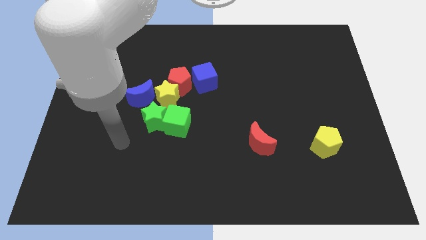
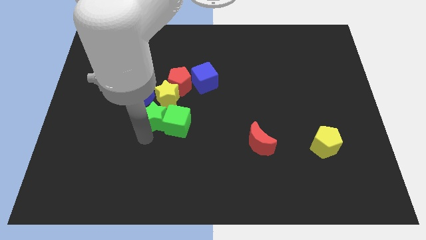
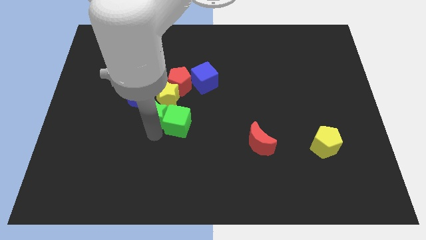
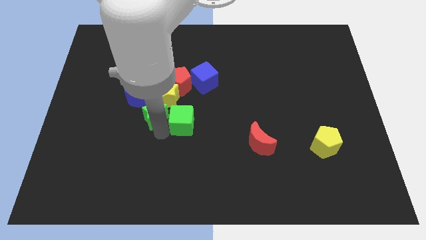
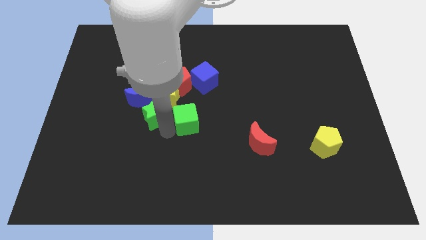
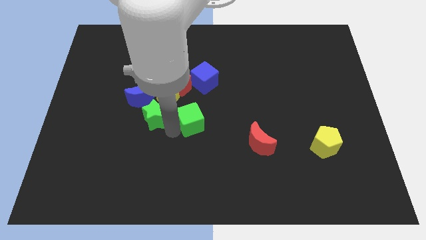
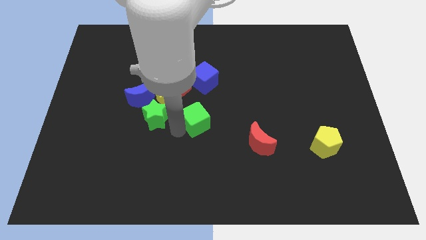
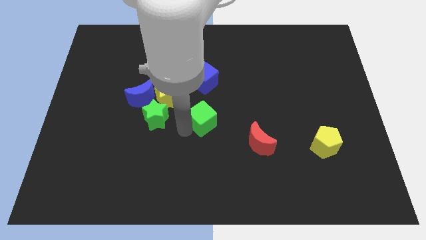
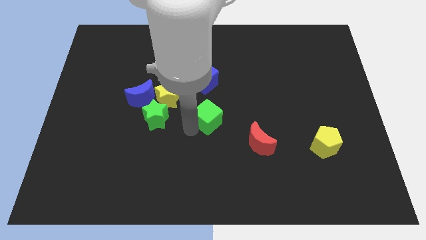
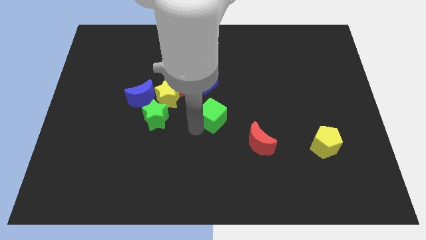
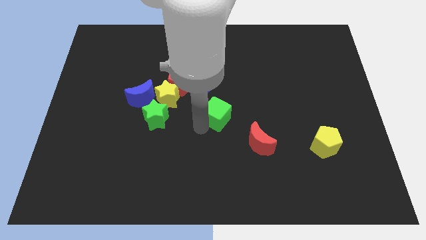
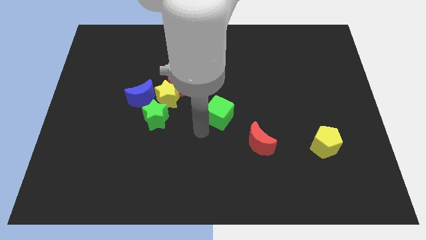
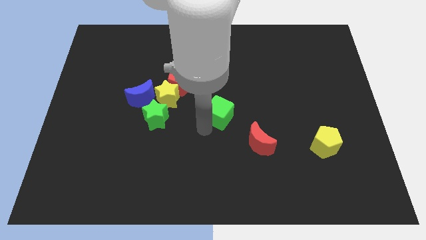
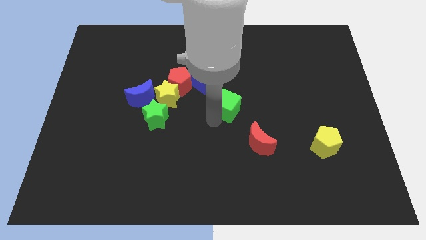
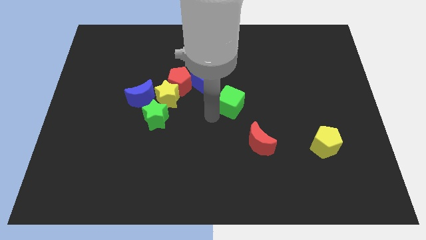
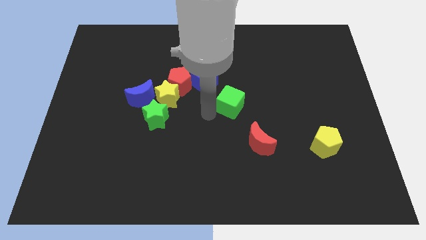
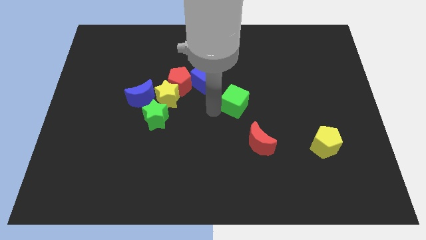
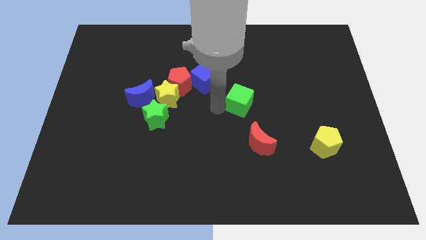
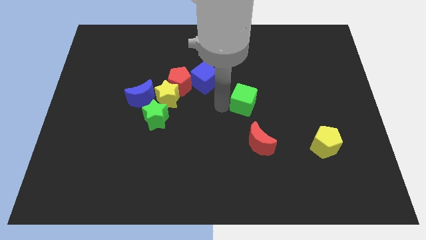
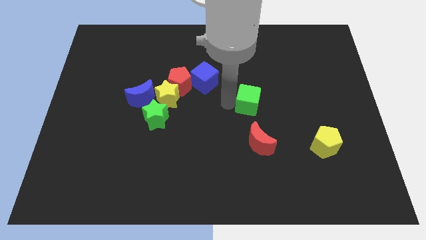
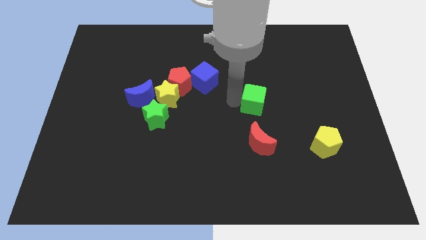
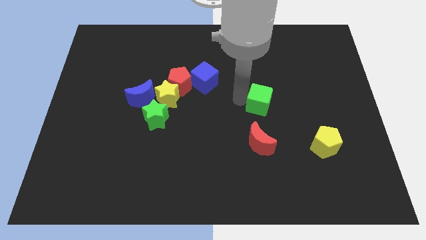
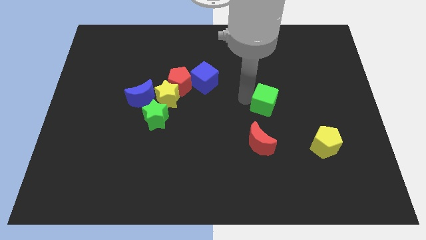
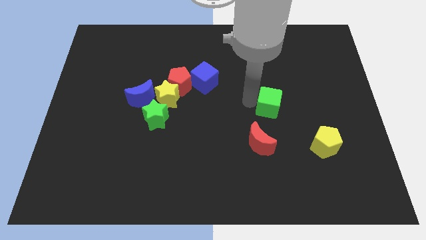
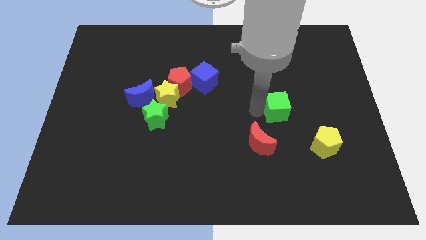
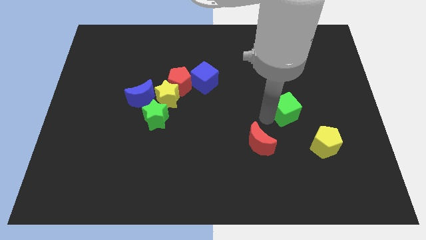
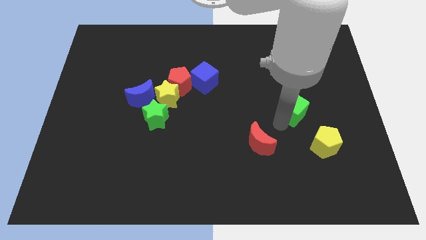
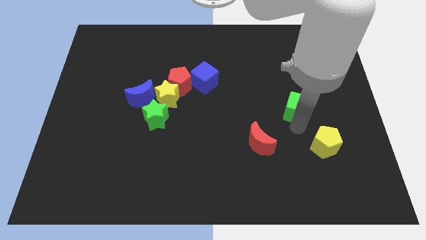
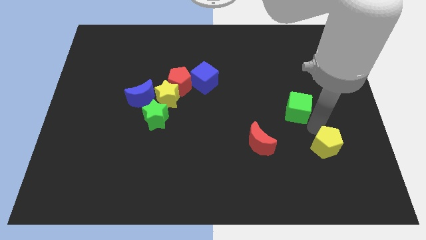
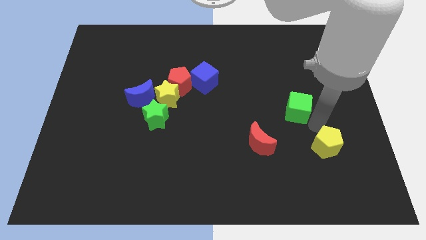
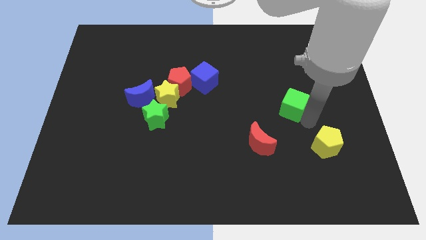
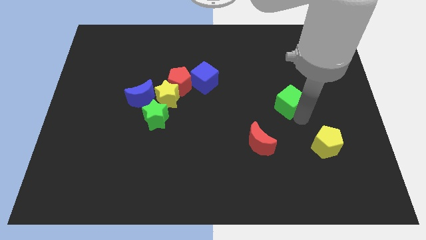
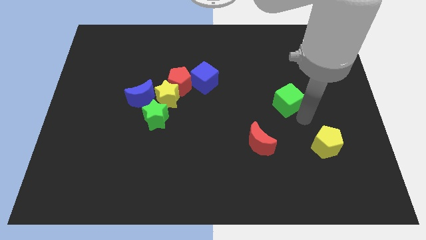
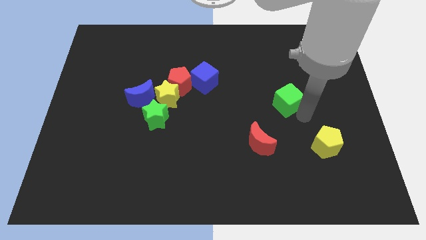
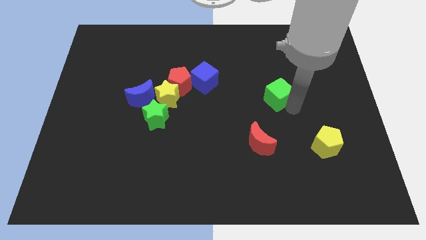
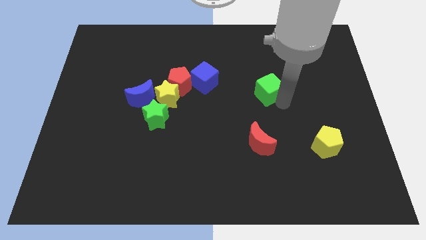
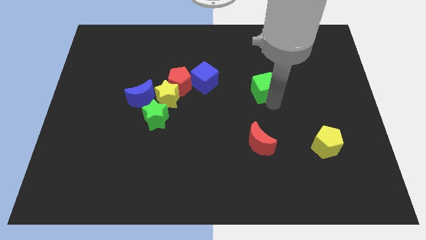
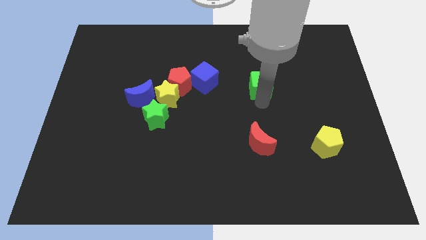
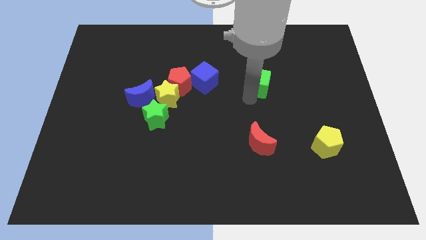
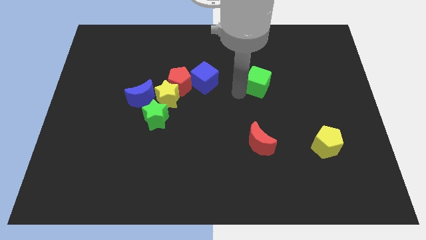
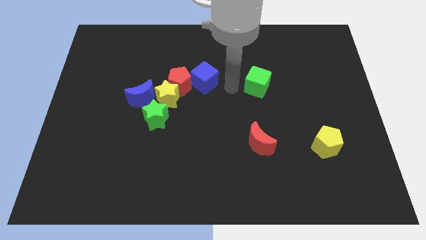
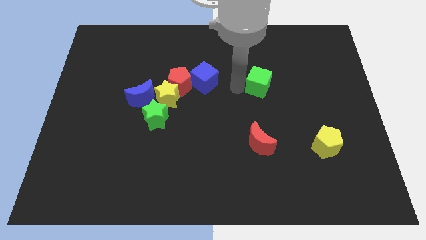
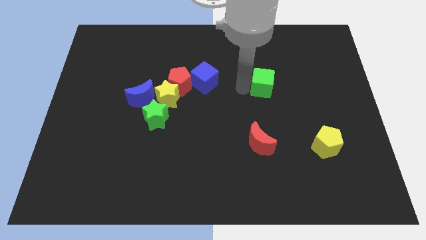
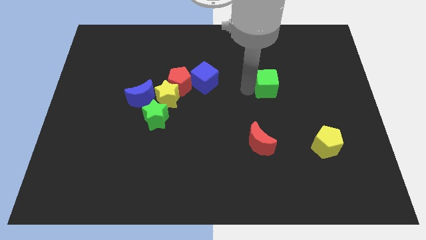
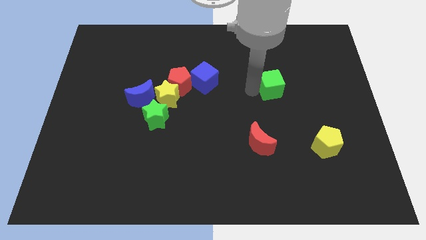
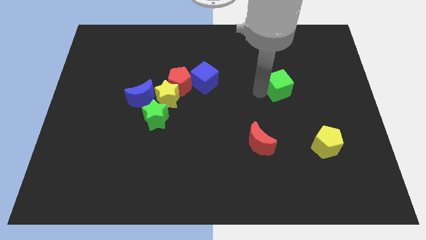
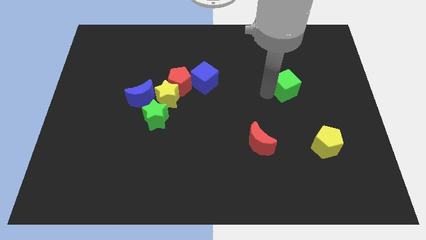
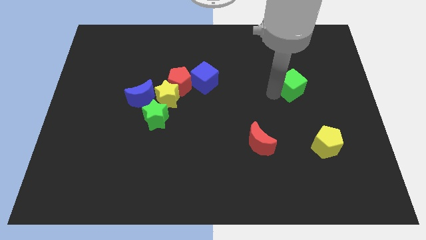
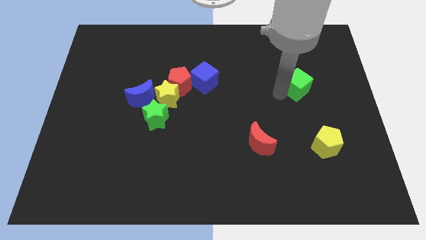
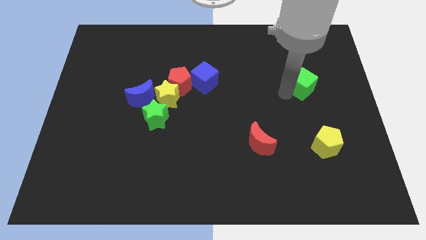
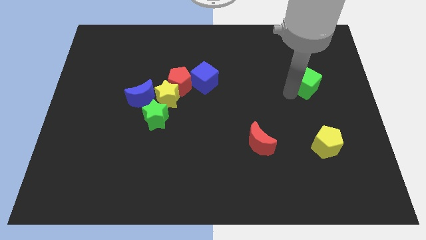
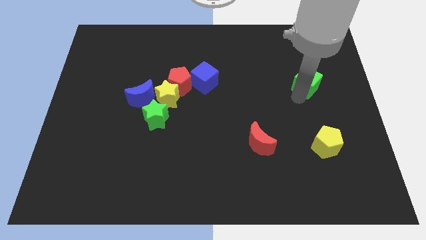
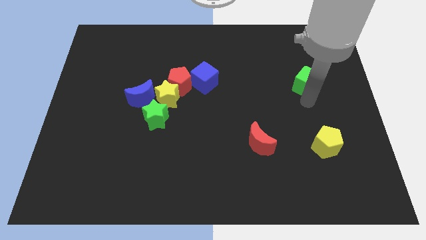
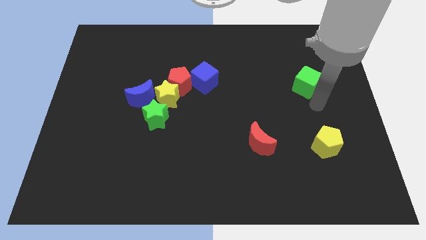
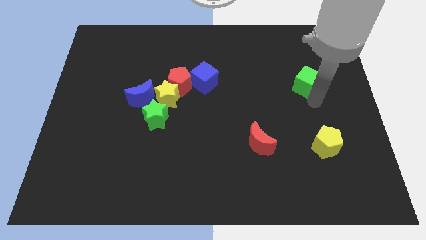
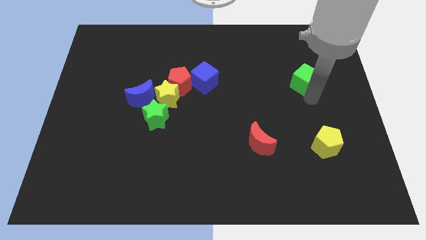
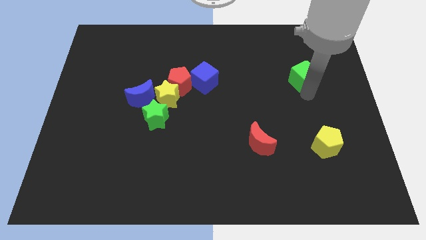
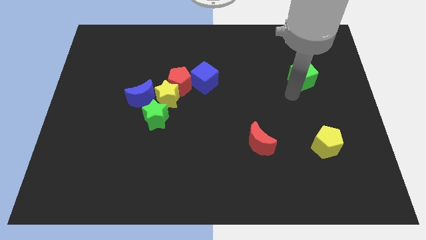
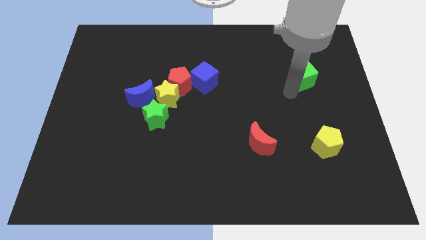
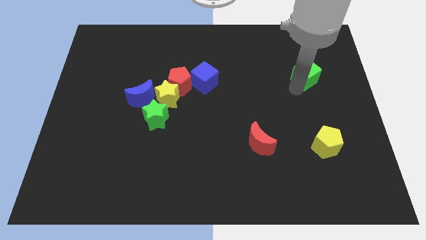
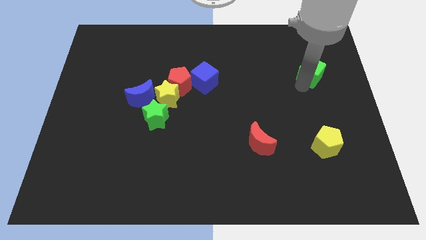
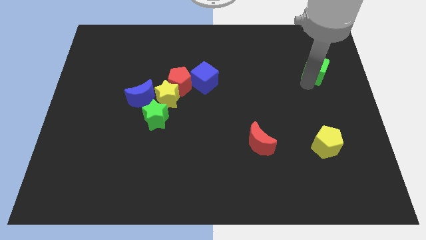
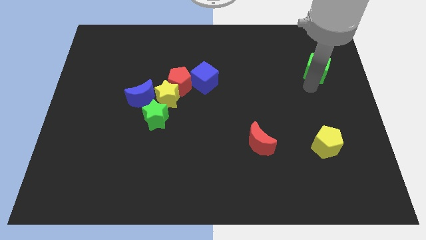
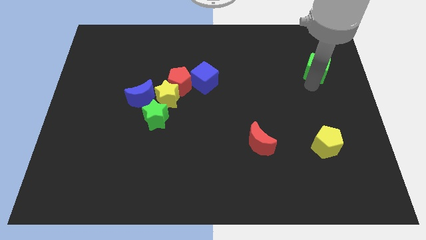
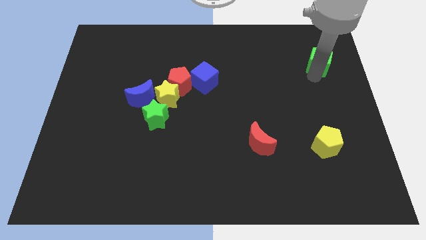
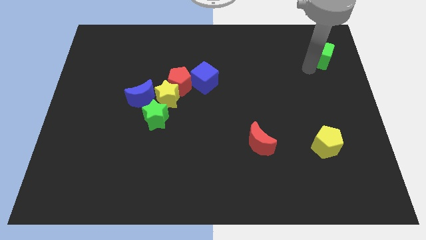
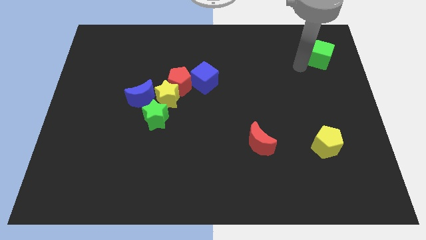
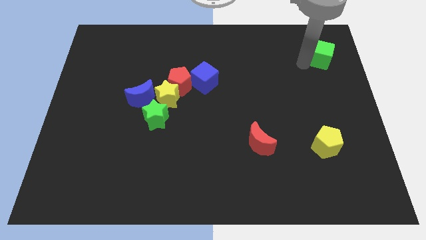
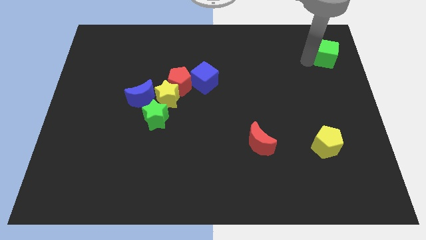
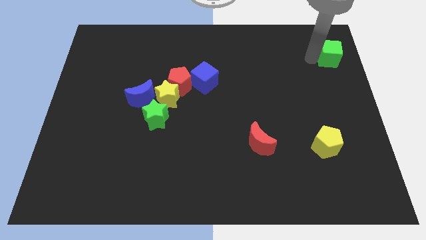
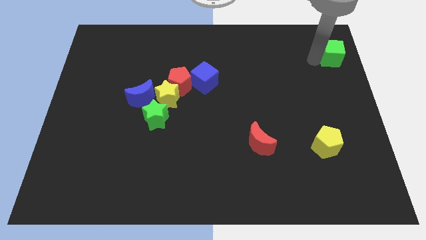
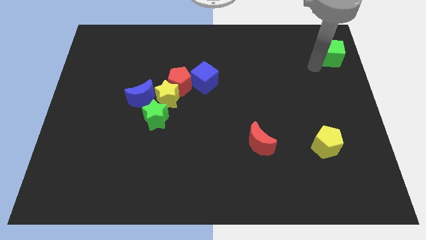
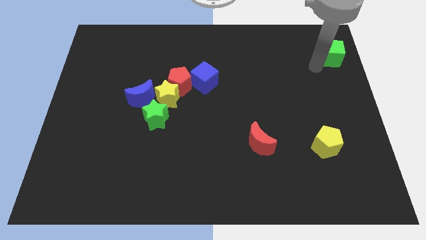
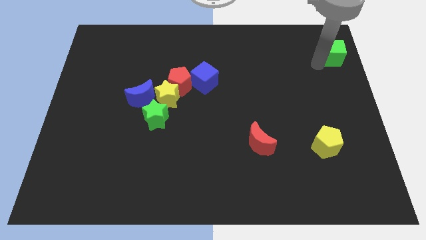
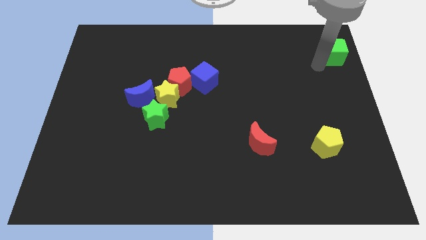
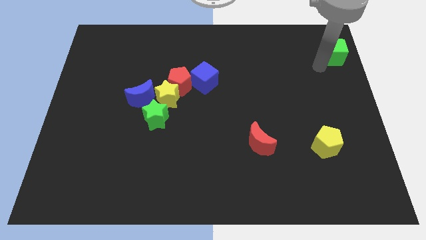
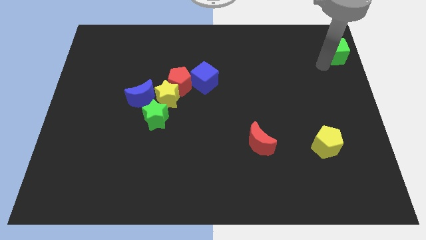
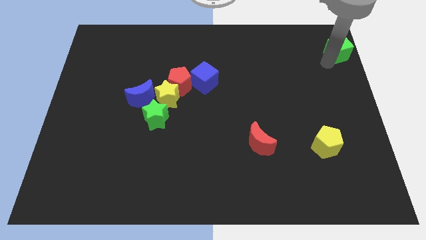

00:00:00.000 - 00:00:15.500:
move the green cube to the upper right corner
